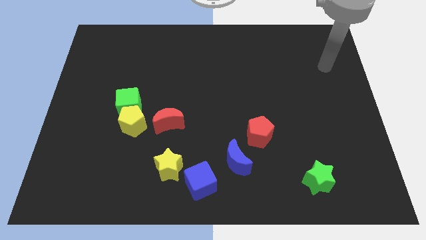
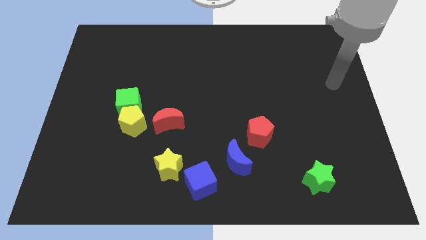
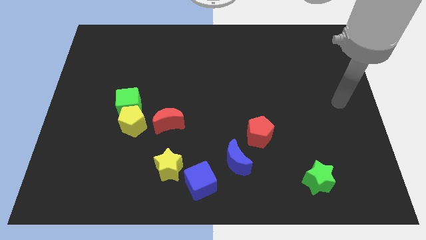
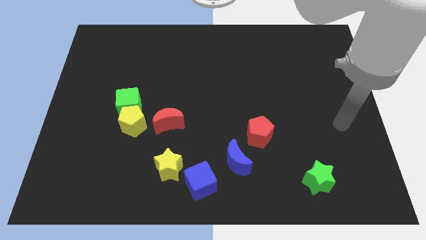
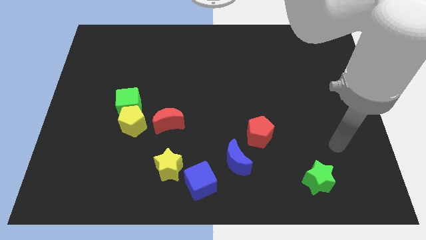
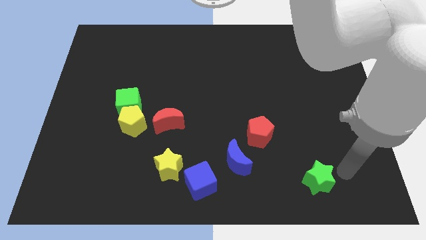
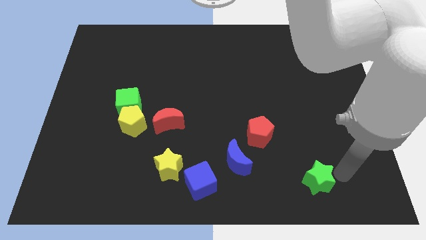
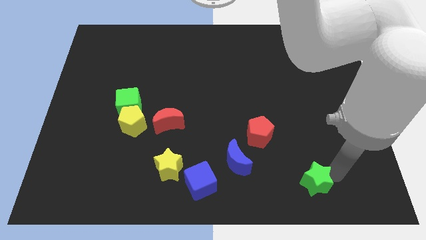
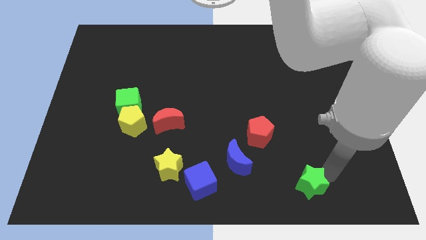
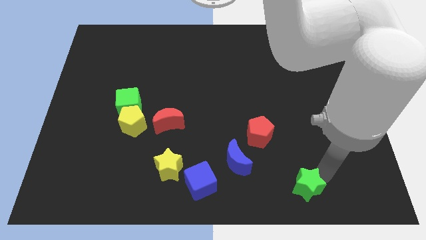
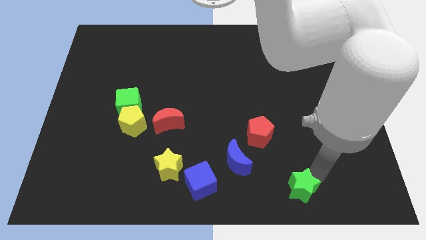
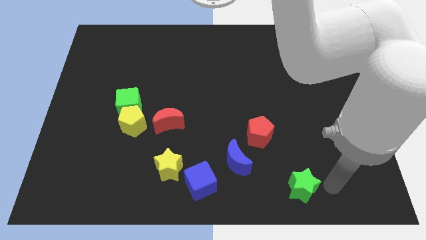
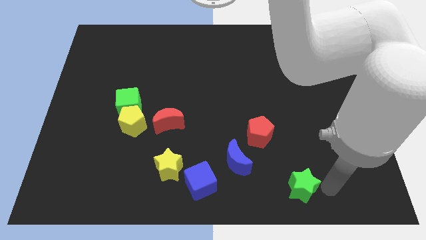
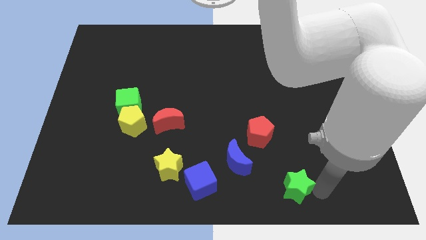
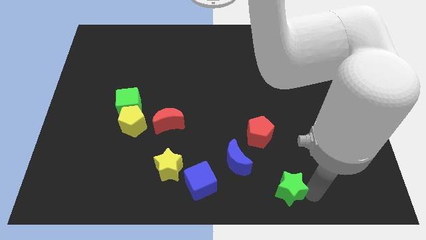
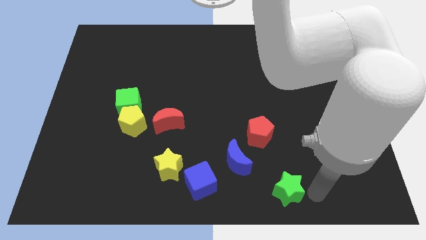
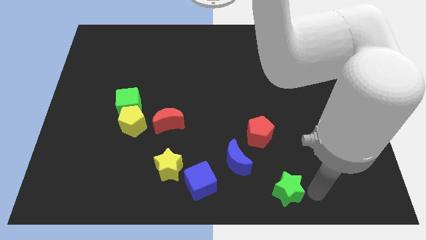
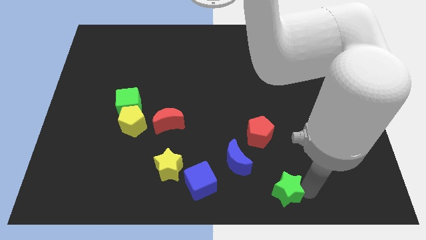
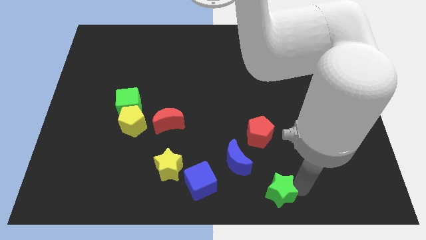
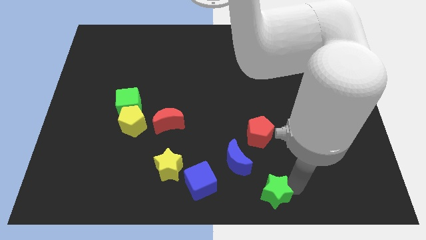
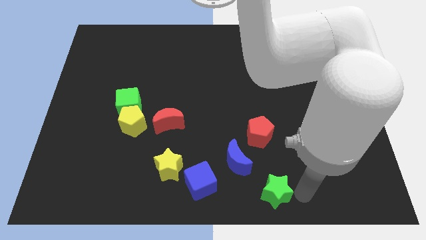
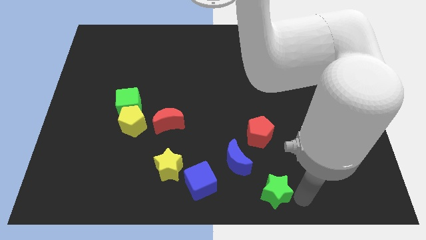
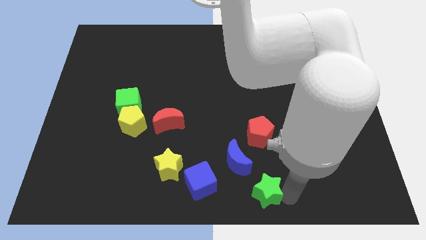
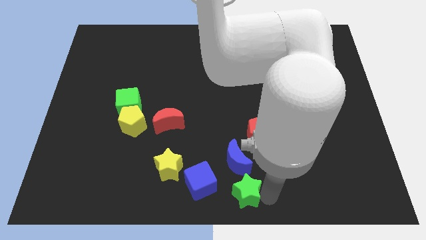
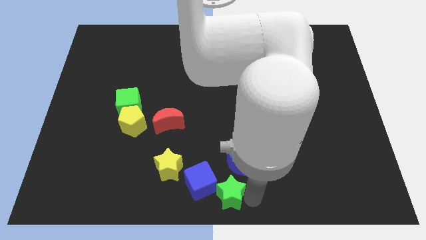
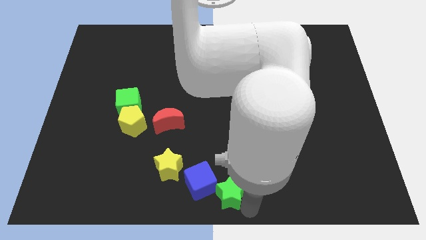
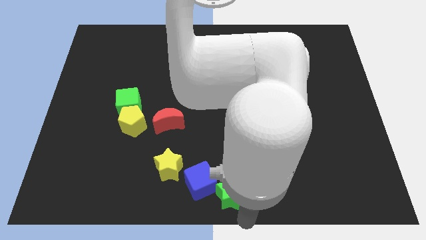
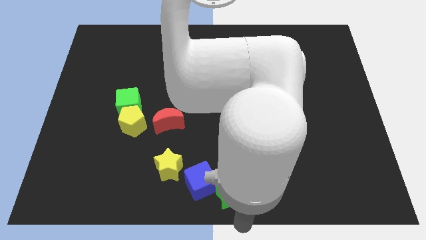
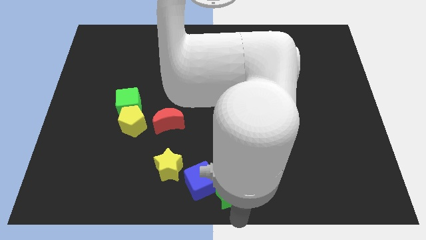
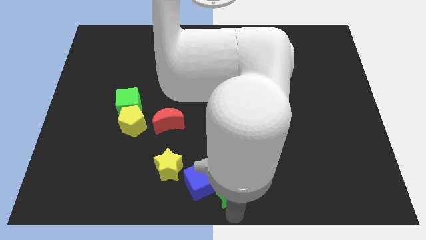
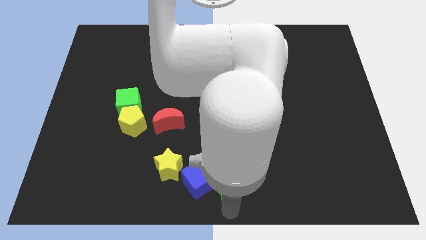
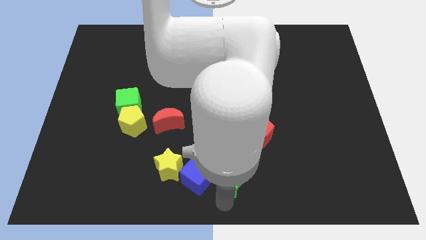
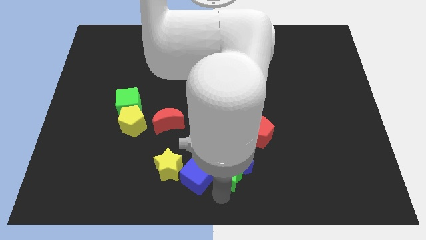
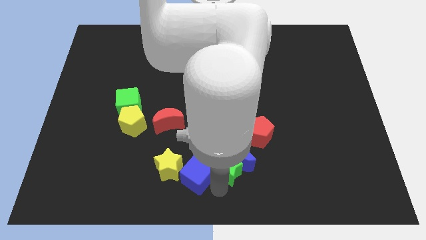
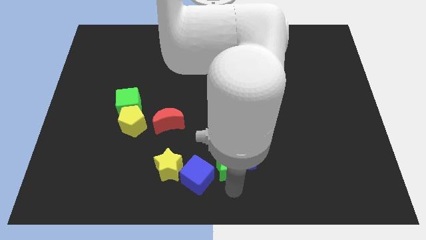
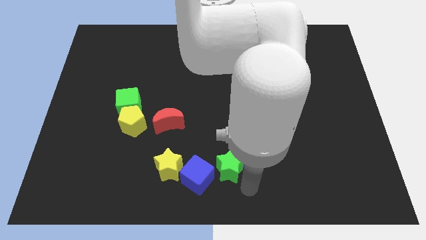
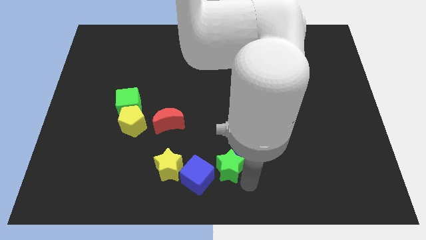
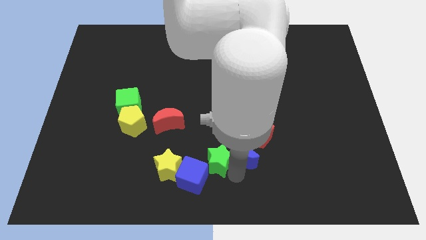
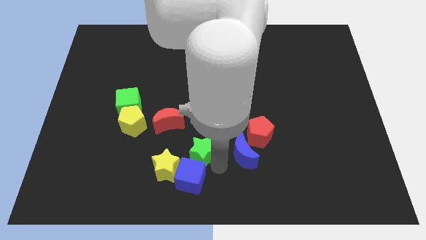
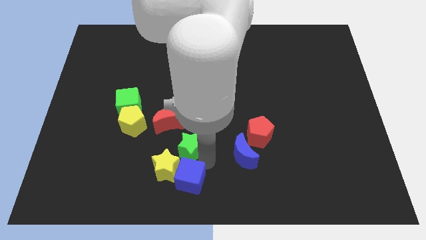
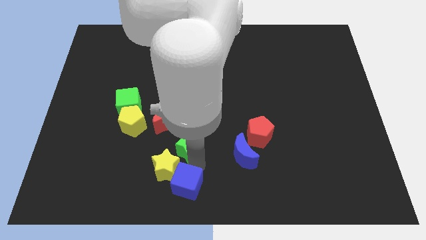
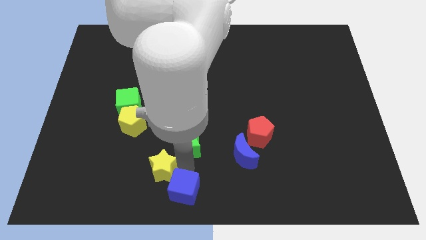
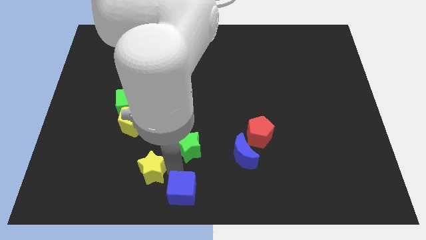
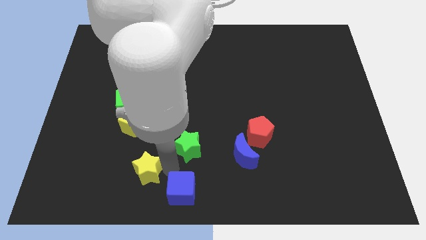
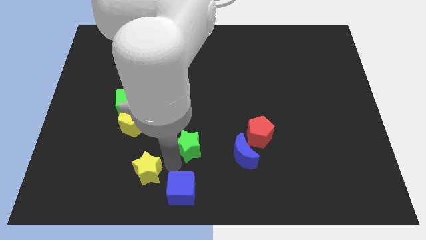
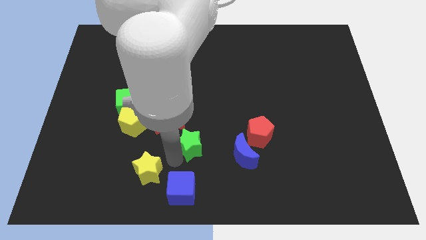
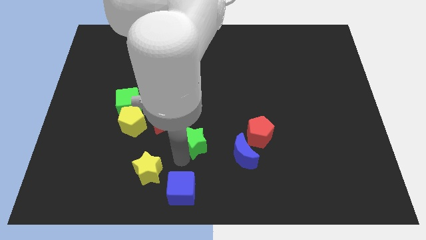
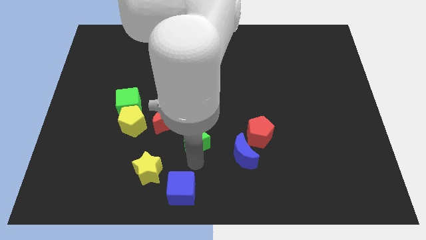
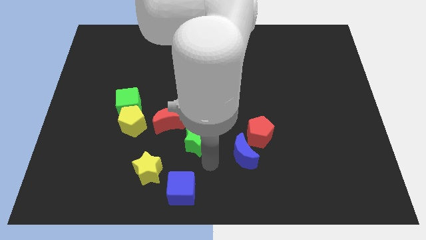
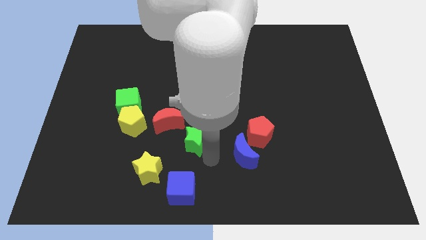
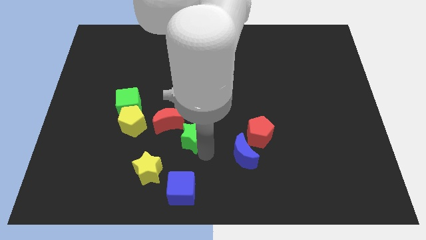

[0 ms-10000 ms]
slide the green star right of the yellow pentagon

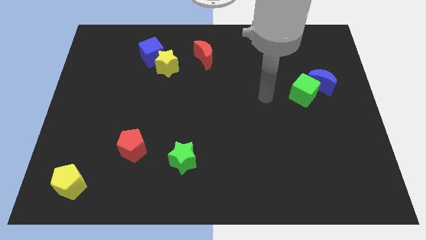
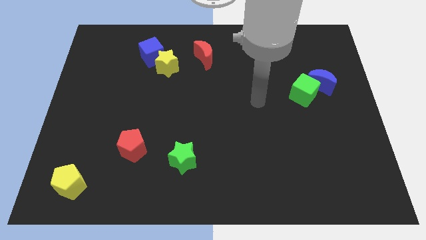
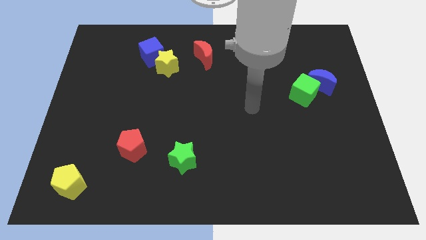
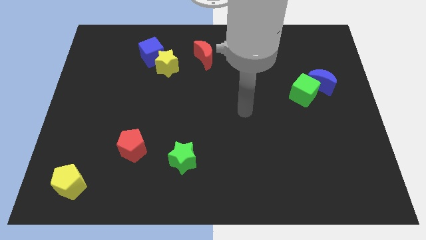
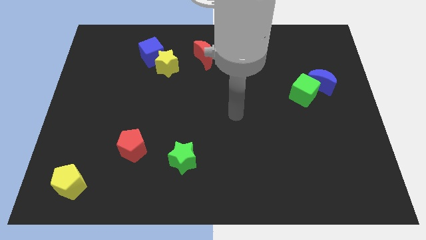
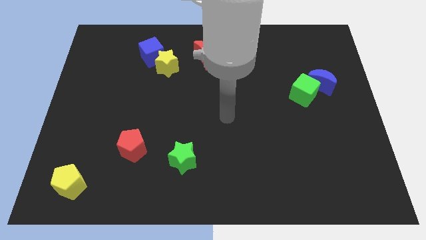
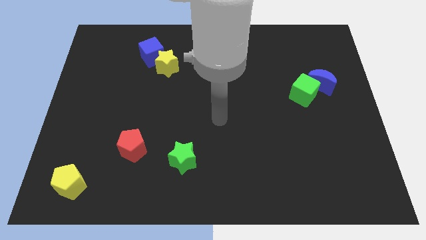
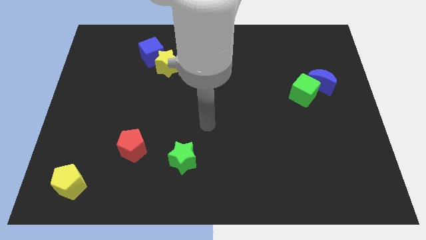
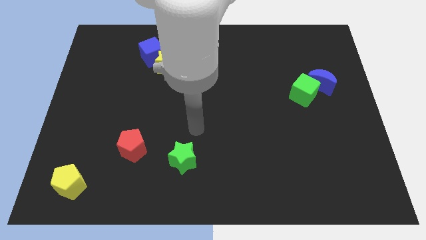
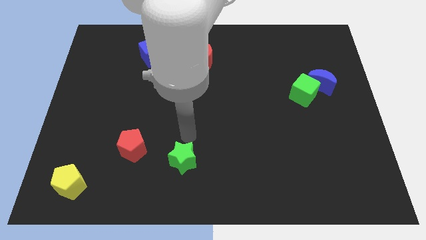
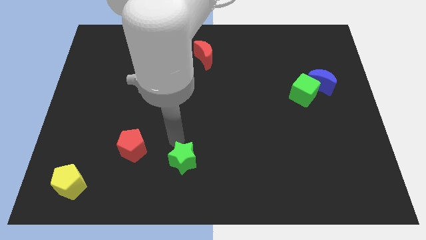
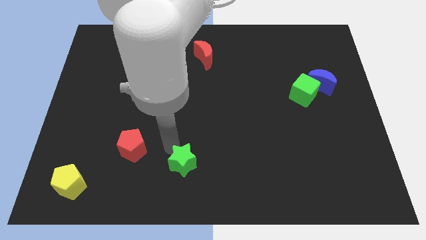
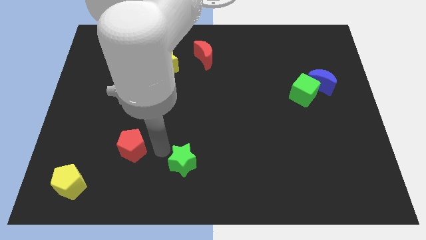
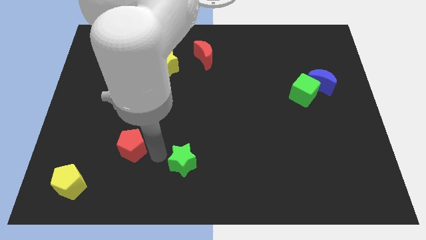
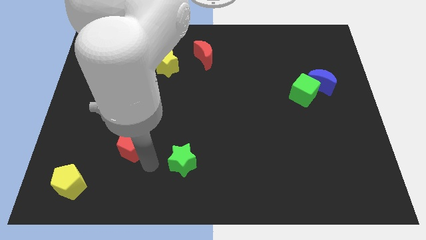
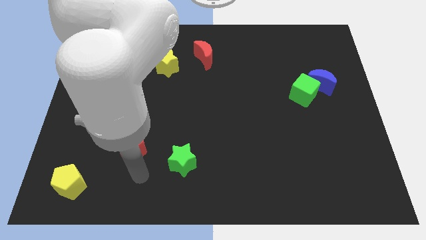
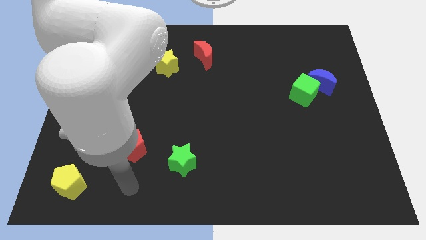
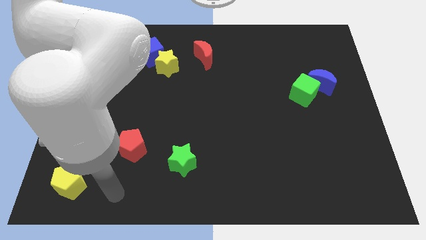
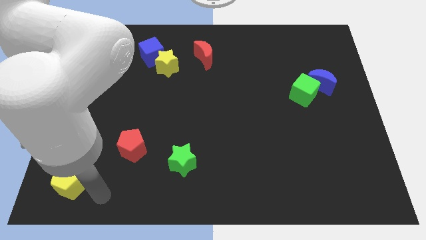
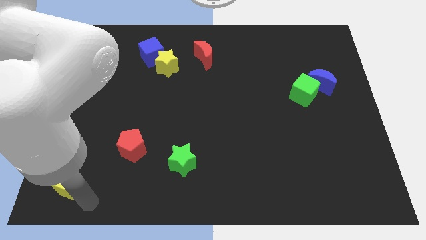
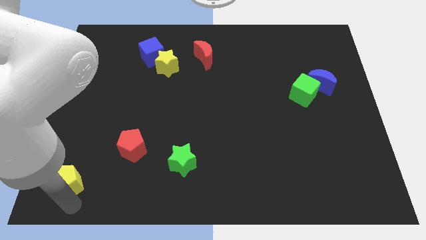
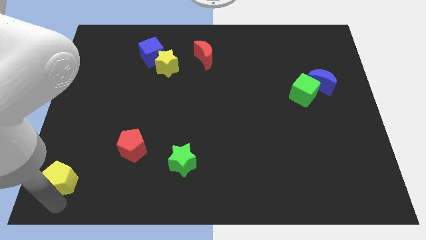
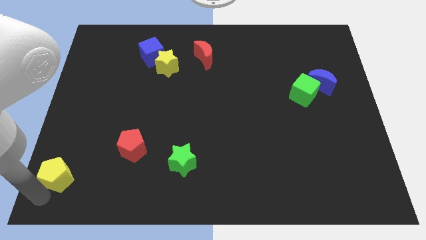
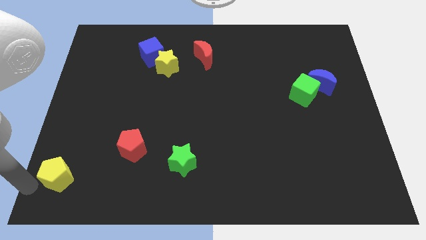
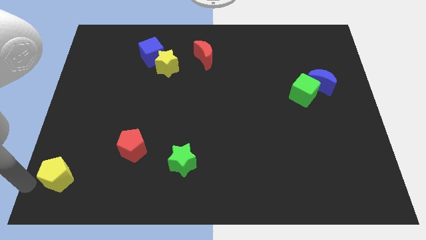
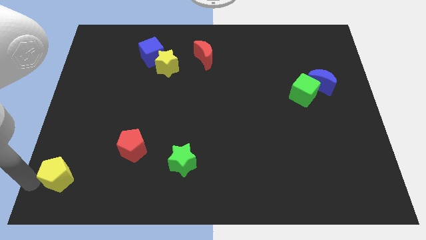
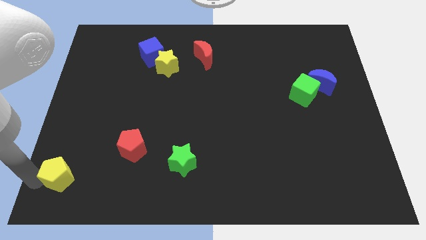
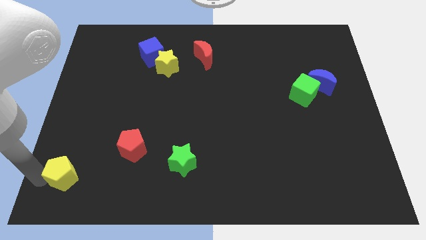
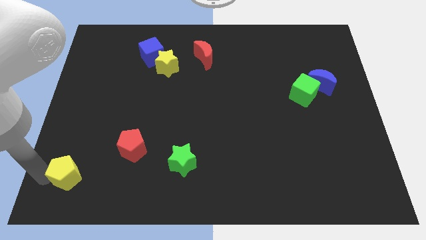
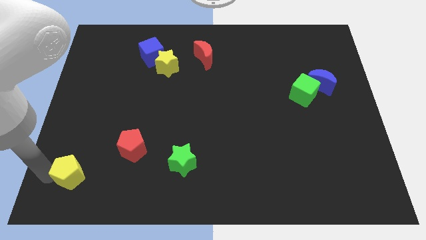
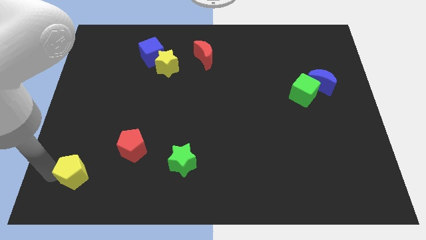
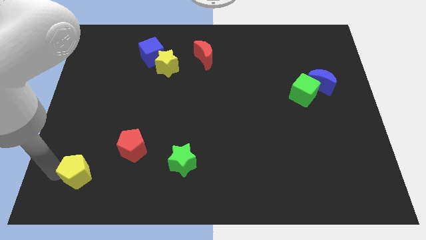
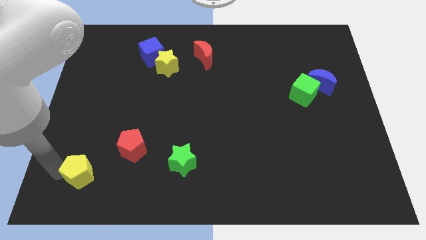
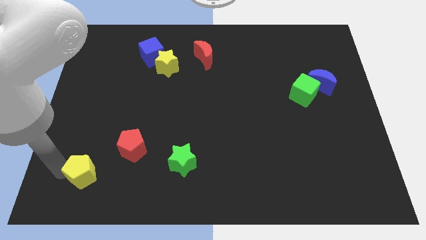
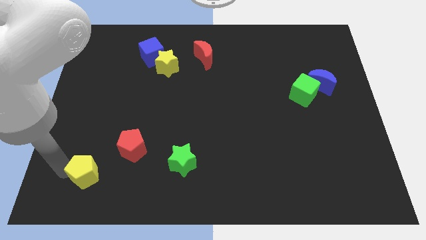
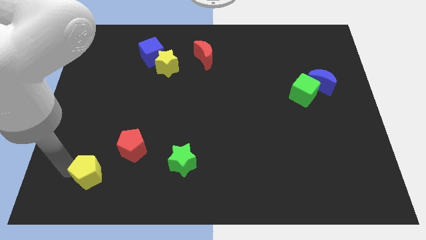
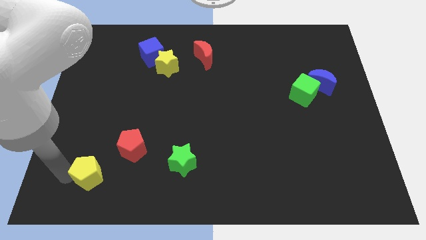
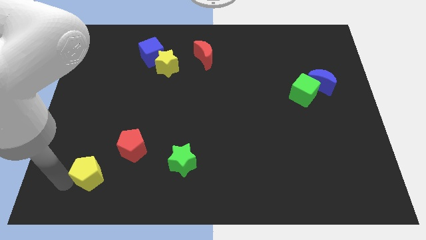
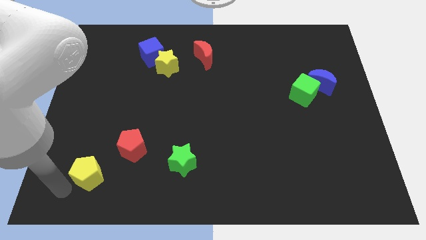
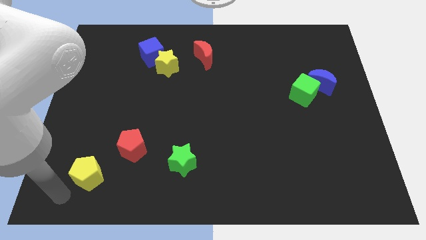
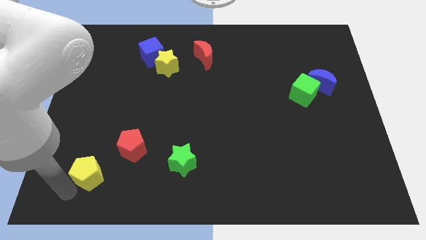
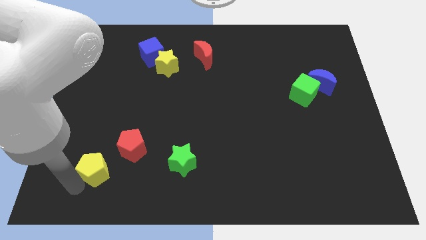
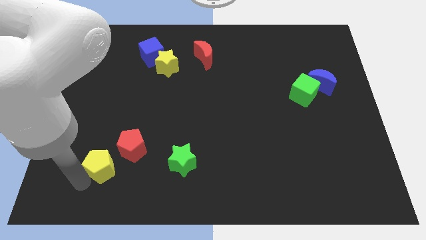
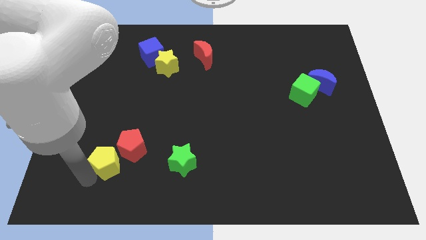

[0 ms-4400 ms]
put the yellow pentagon to the left of the green star
